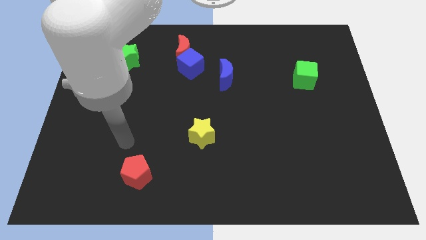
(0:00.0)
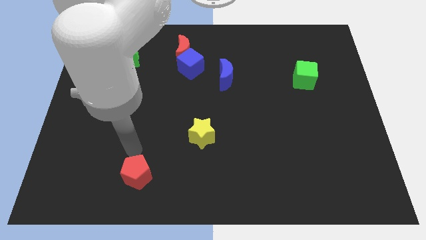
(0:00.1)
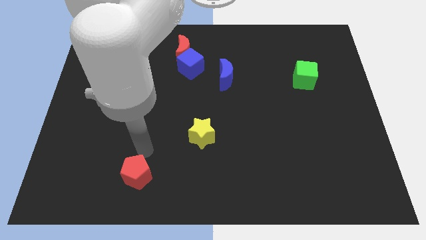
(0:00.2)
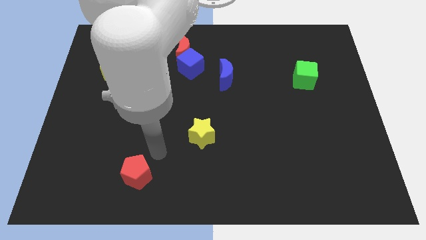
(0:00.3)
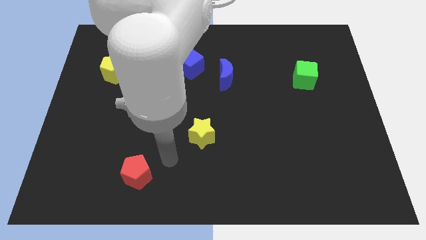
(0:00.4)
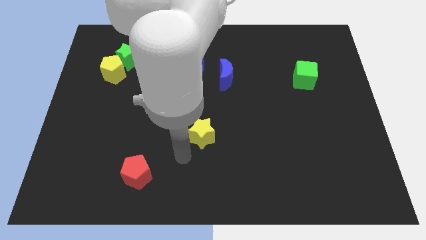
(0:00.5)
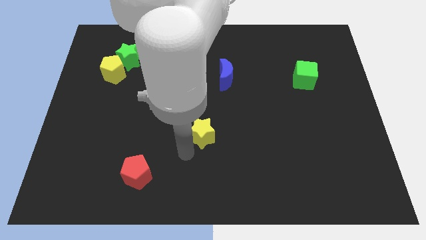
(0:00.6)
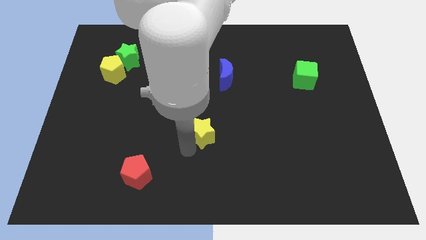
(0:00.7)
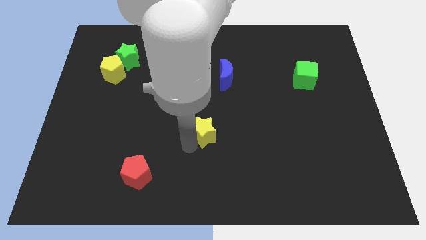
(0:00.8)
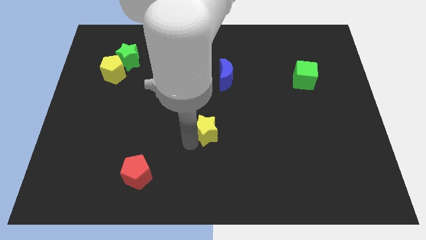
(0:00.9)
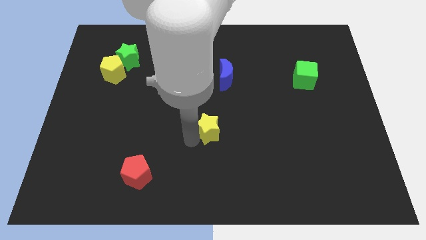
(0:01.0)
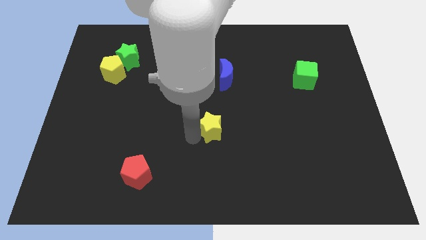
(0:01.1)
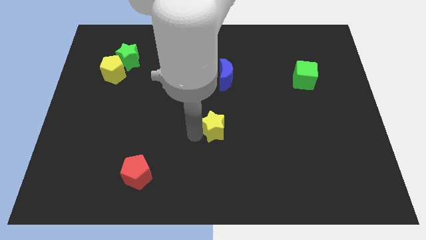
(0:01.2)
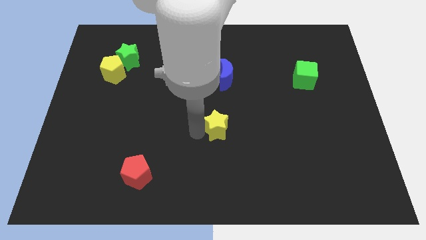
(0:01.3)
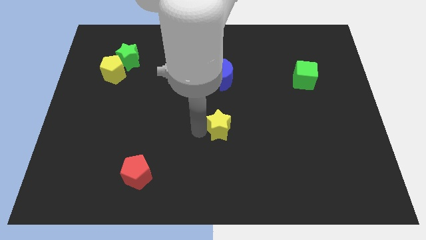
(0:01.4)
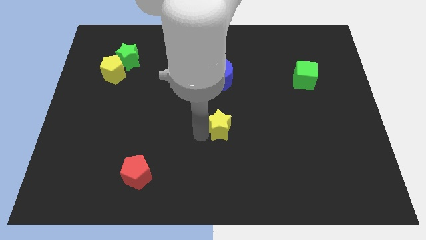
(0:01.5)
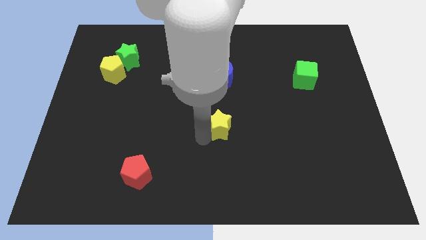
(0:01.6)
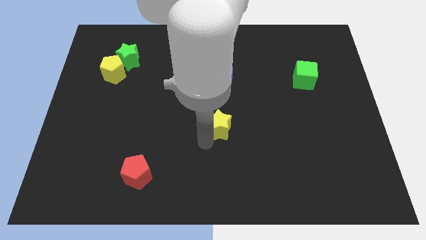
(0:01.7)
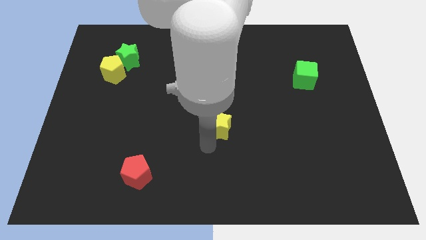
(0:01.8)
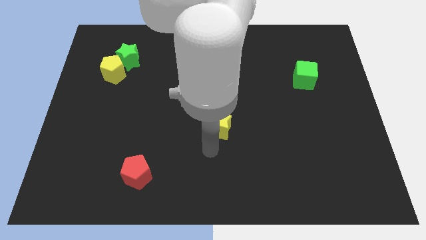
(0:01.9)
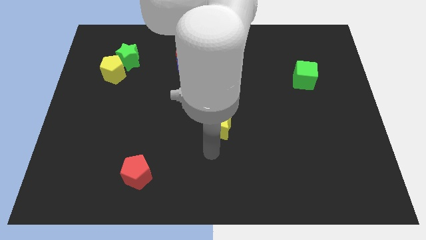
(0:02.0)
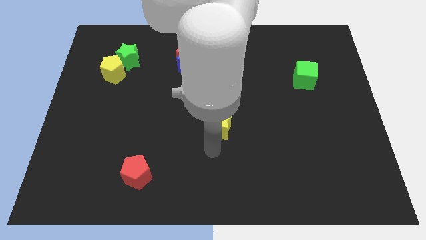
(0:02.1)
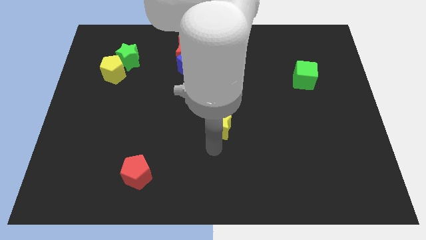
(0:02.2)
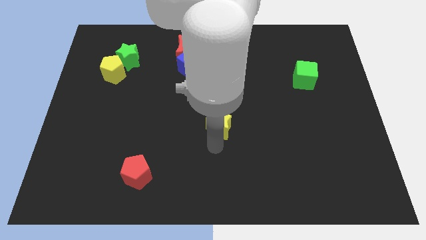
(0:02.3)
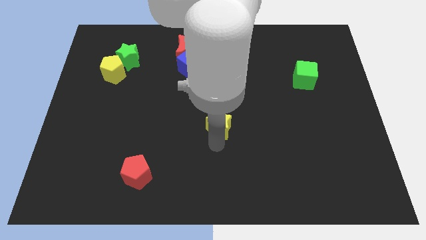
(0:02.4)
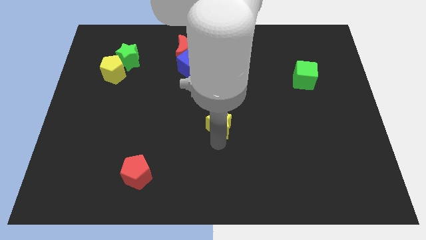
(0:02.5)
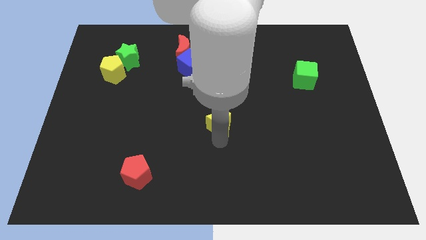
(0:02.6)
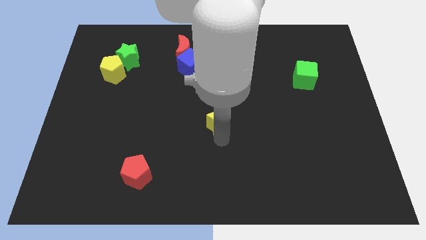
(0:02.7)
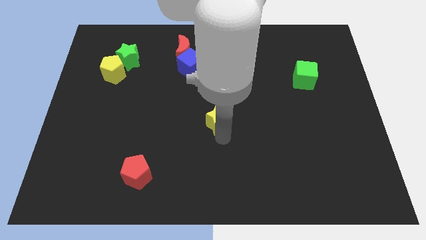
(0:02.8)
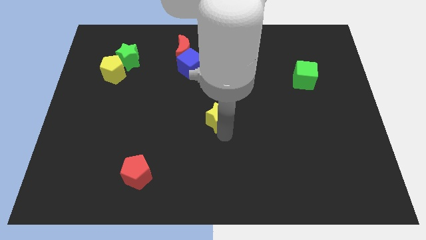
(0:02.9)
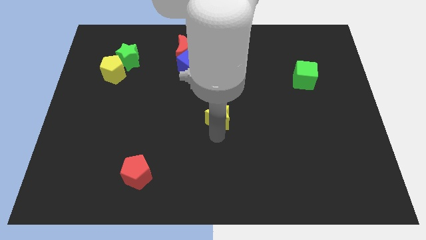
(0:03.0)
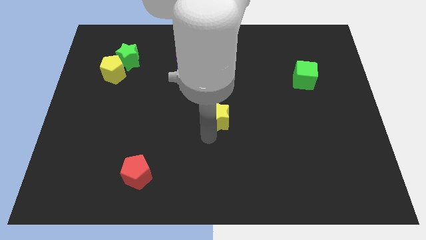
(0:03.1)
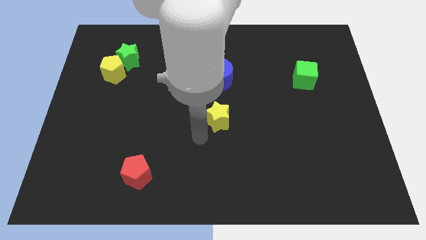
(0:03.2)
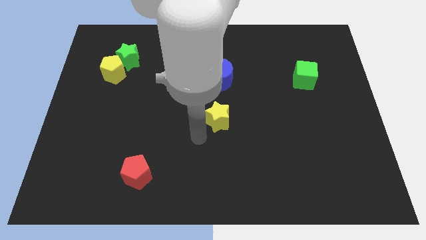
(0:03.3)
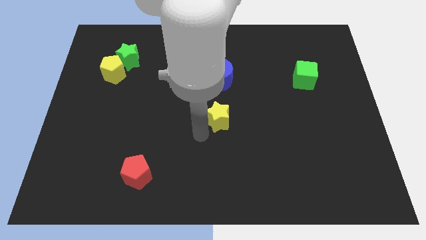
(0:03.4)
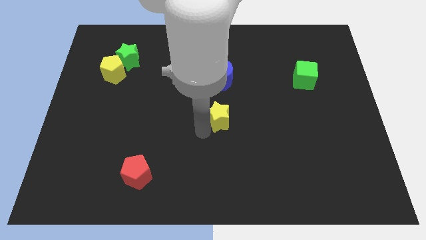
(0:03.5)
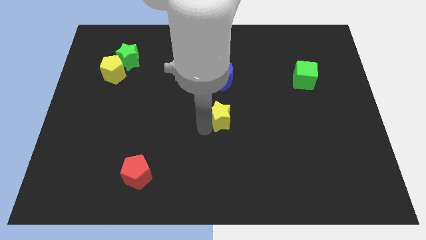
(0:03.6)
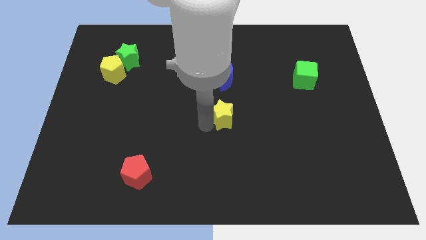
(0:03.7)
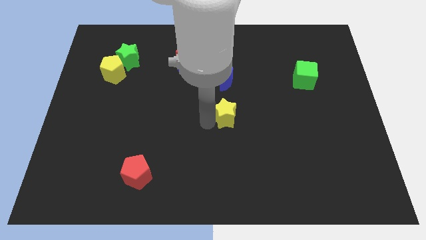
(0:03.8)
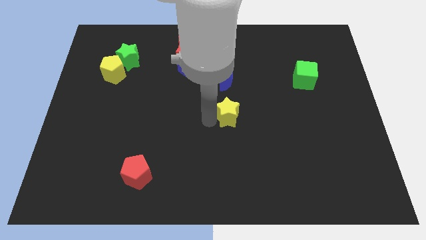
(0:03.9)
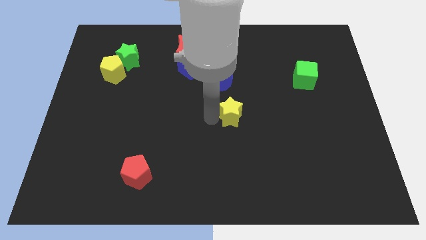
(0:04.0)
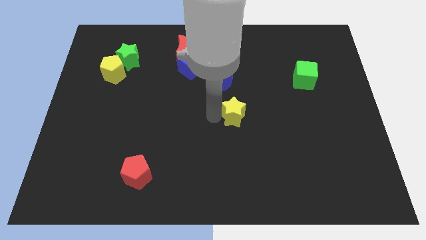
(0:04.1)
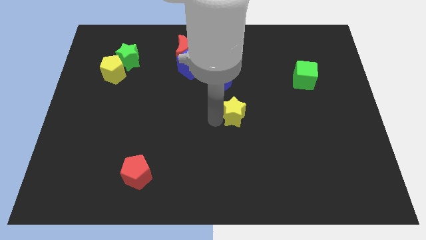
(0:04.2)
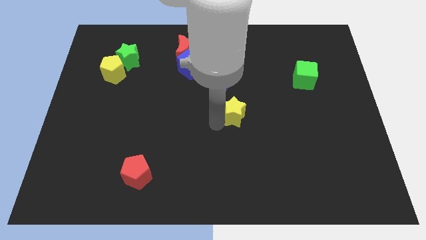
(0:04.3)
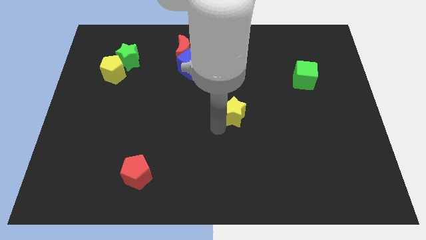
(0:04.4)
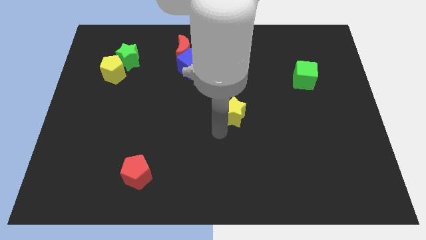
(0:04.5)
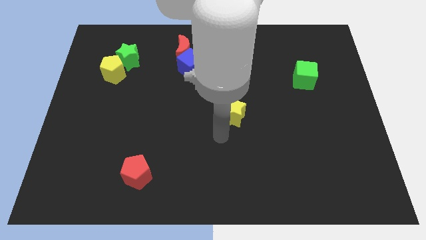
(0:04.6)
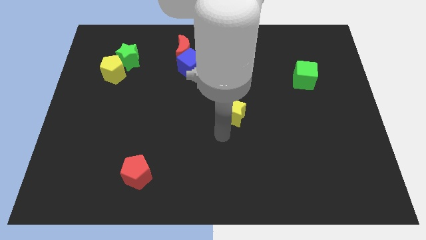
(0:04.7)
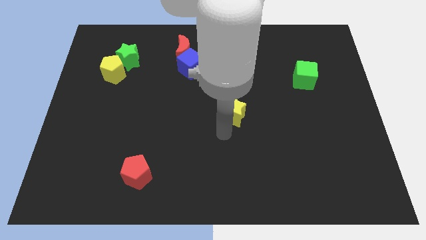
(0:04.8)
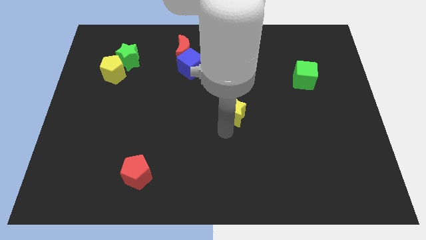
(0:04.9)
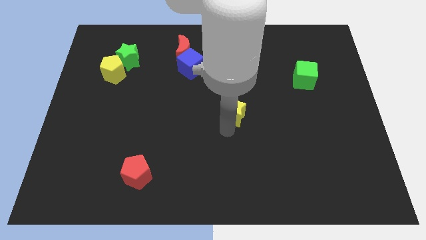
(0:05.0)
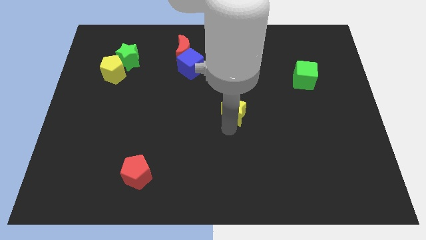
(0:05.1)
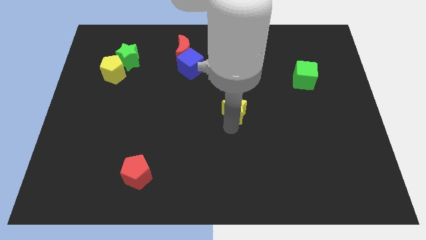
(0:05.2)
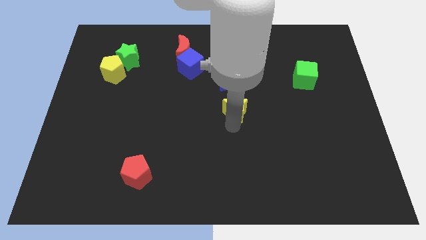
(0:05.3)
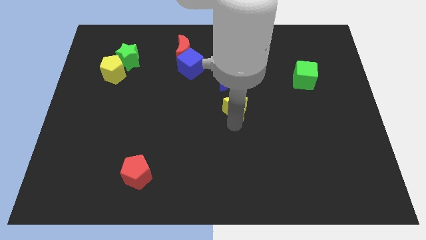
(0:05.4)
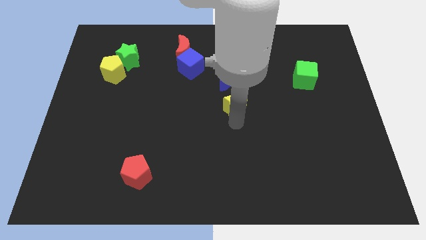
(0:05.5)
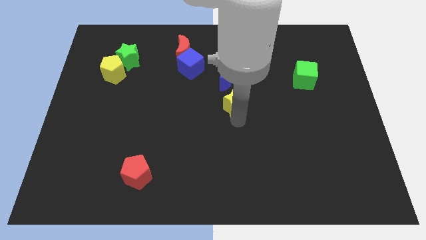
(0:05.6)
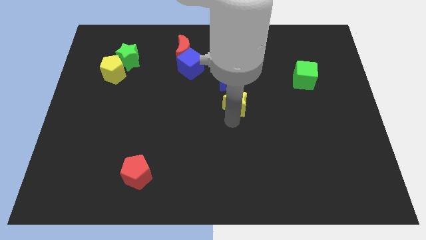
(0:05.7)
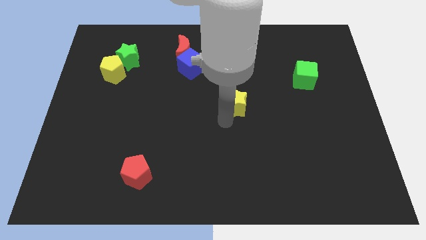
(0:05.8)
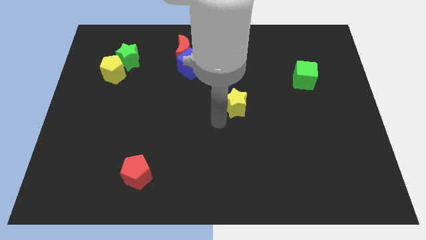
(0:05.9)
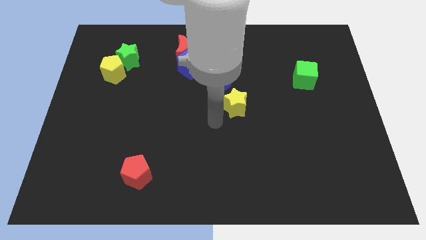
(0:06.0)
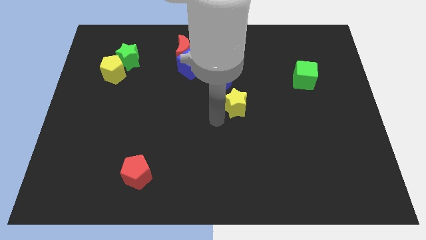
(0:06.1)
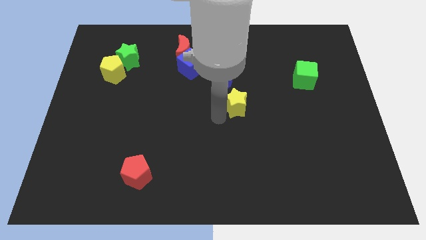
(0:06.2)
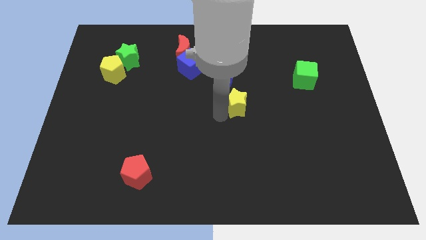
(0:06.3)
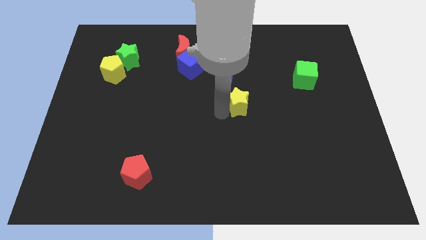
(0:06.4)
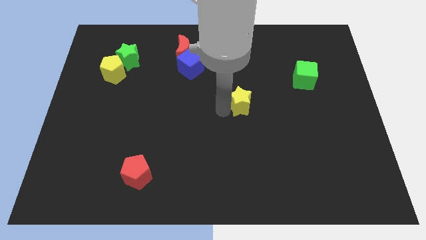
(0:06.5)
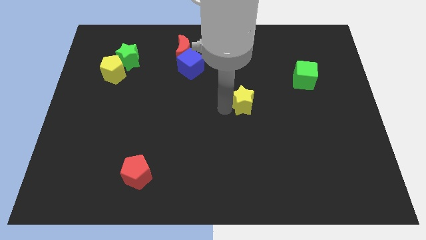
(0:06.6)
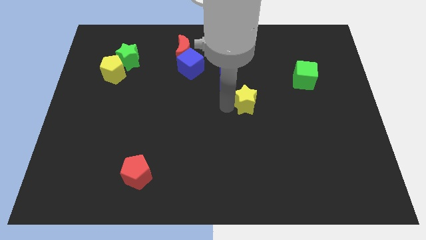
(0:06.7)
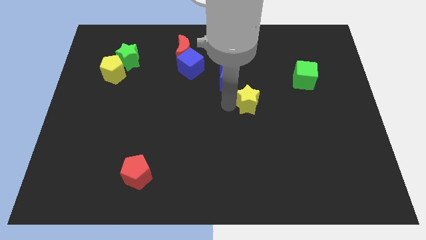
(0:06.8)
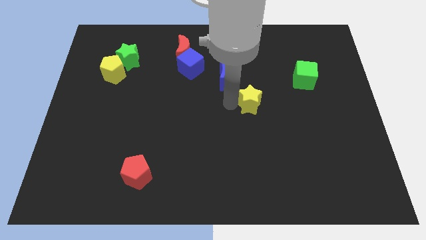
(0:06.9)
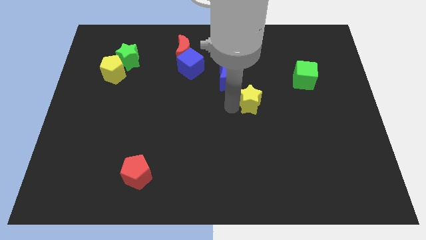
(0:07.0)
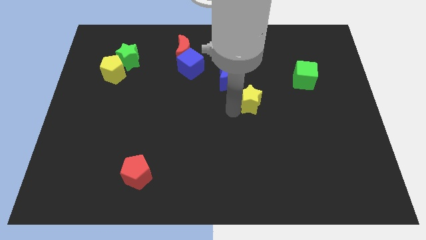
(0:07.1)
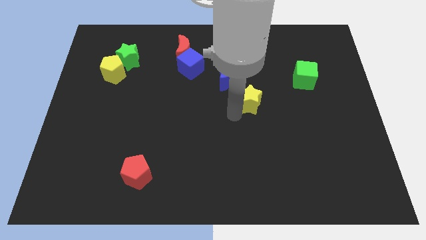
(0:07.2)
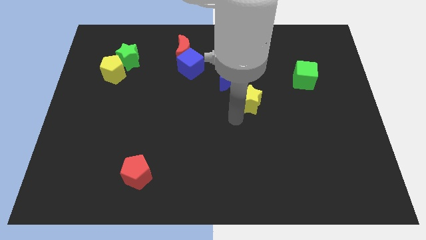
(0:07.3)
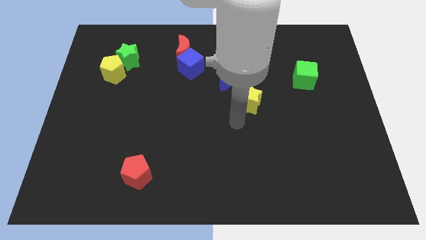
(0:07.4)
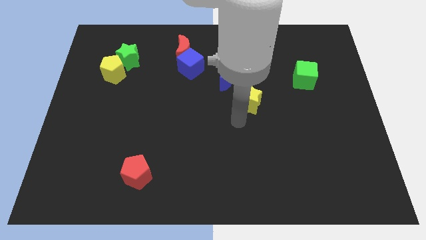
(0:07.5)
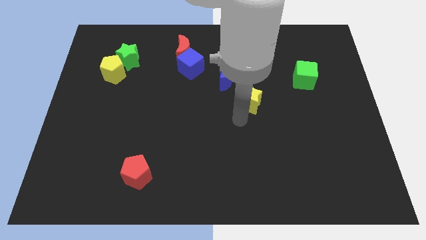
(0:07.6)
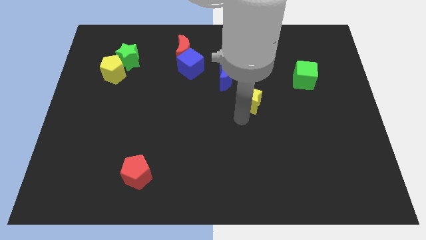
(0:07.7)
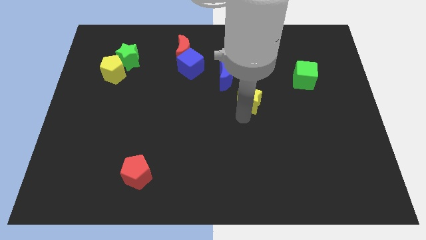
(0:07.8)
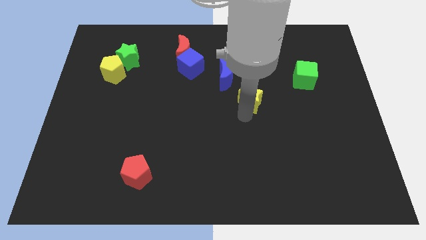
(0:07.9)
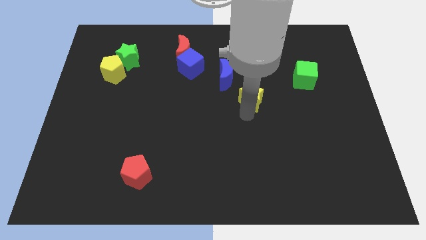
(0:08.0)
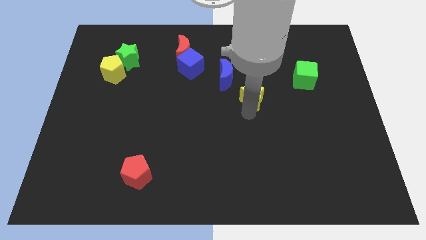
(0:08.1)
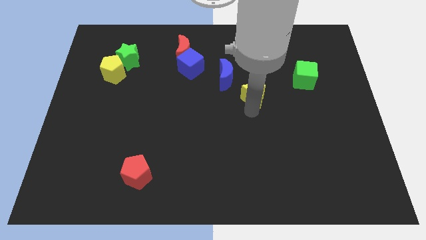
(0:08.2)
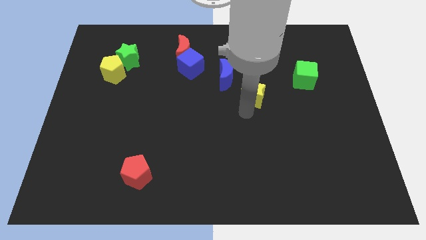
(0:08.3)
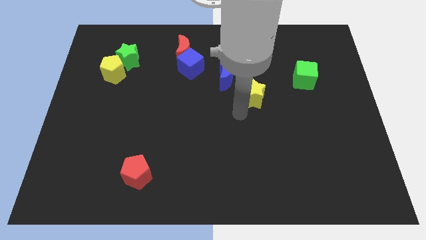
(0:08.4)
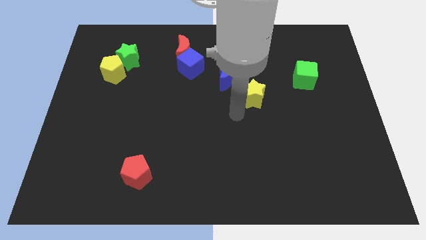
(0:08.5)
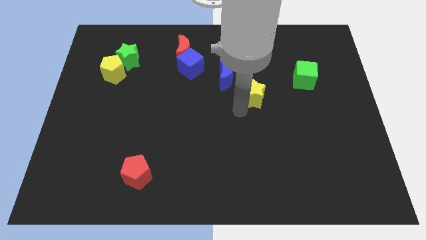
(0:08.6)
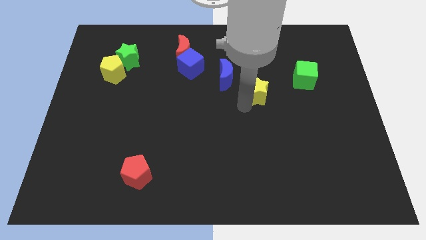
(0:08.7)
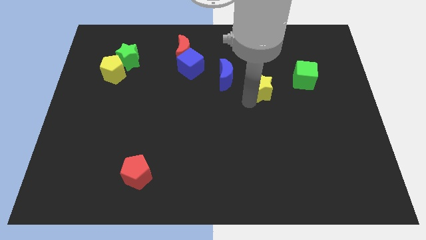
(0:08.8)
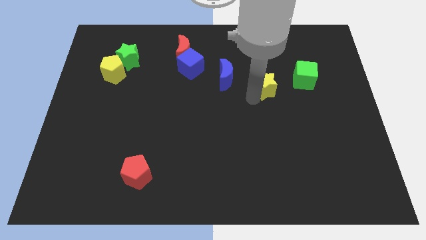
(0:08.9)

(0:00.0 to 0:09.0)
move the yellow star upwards and to the right diagonally
